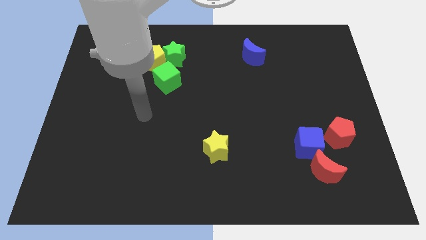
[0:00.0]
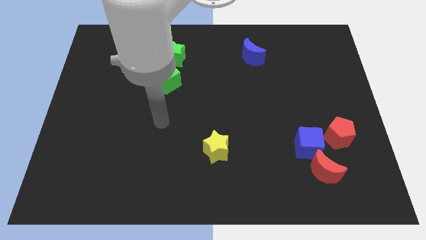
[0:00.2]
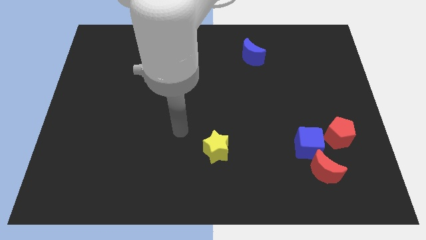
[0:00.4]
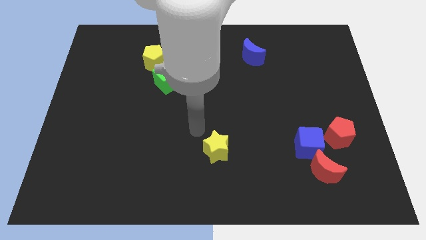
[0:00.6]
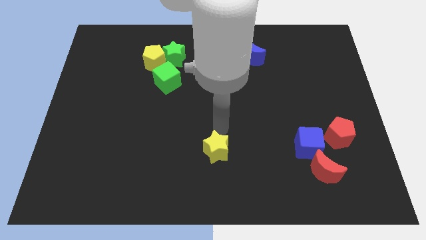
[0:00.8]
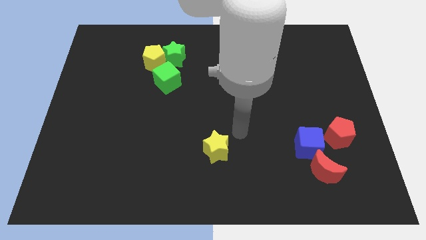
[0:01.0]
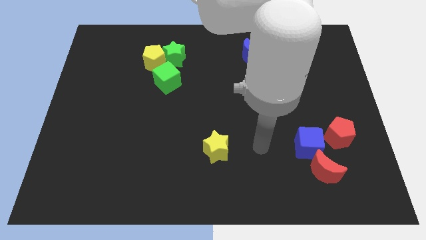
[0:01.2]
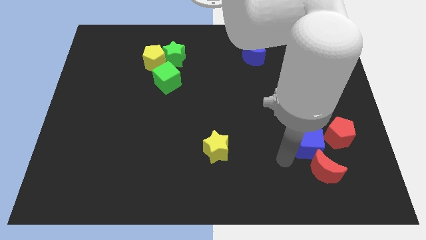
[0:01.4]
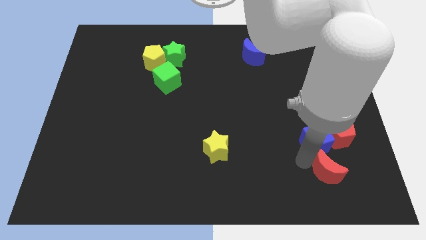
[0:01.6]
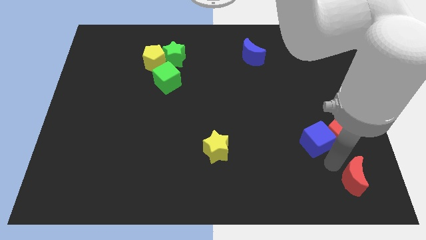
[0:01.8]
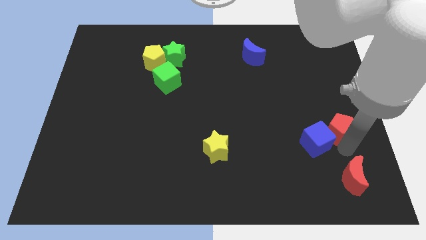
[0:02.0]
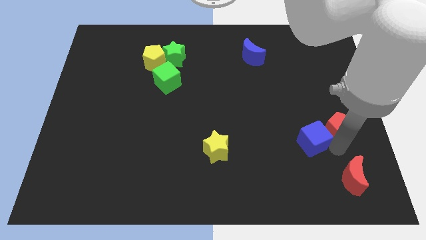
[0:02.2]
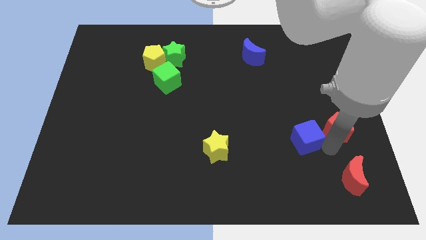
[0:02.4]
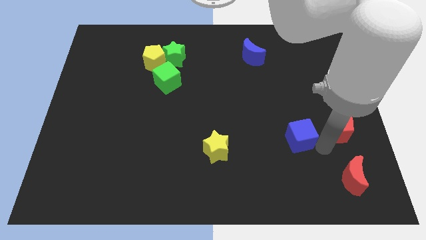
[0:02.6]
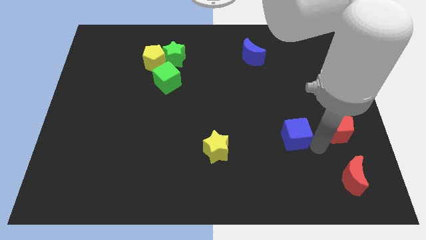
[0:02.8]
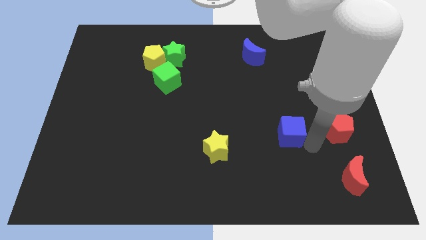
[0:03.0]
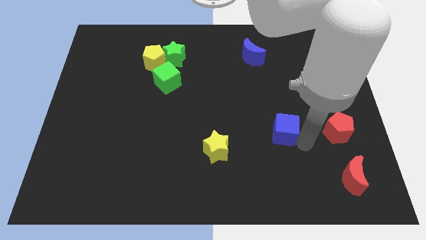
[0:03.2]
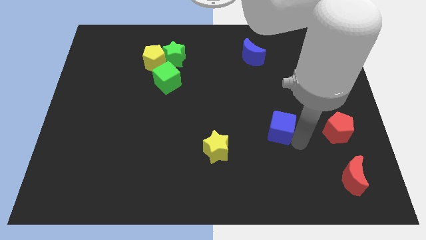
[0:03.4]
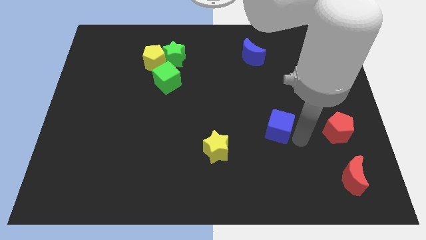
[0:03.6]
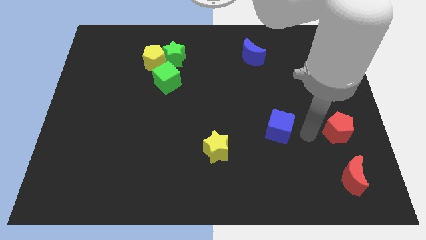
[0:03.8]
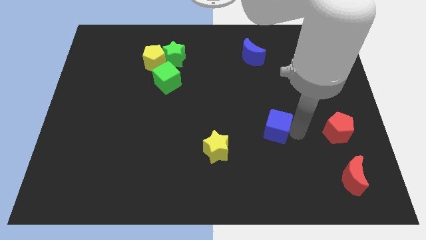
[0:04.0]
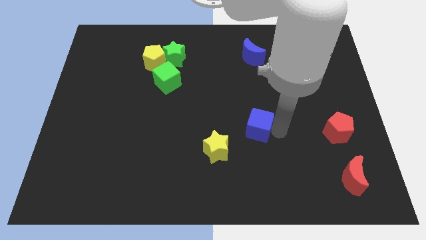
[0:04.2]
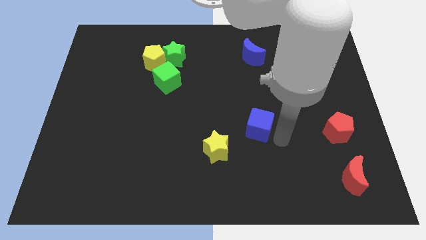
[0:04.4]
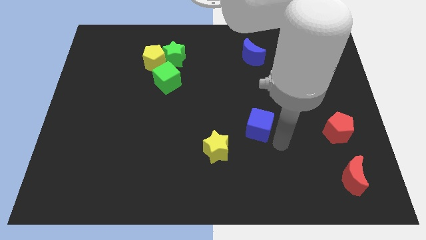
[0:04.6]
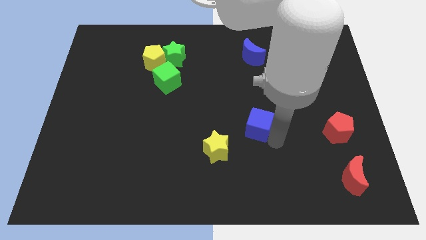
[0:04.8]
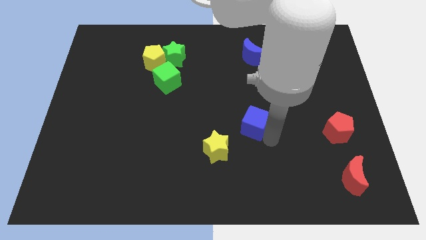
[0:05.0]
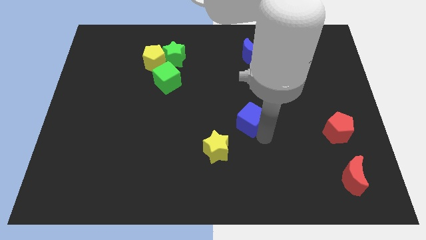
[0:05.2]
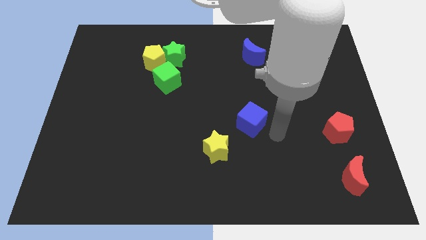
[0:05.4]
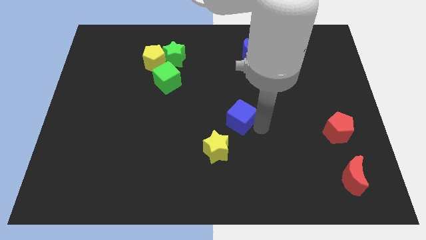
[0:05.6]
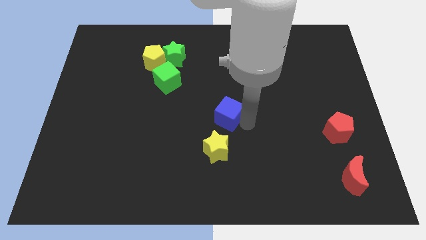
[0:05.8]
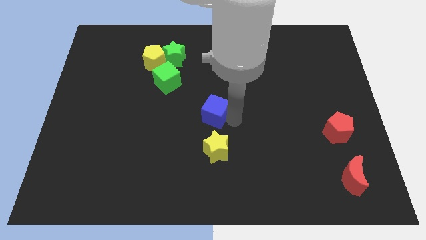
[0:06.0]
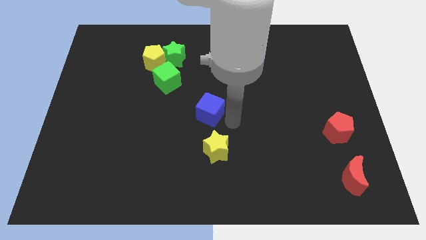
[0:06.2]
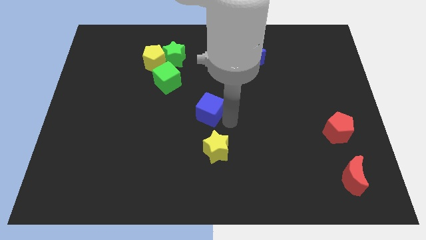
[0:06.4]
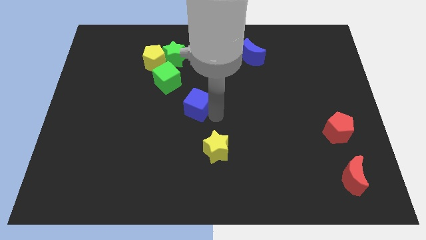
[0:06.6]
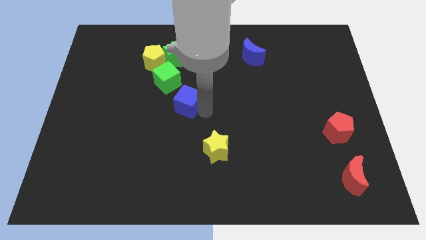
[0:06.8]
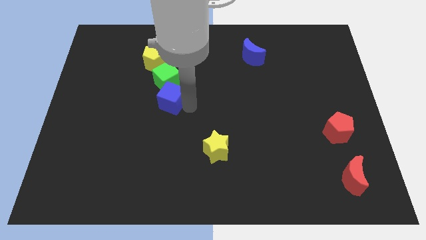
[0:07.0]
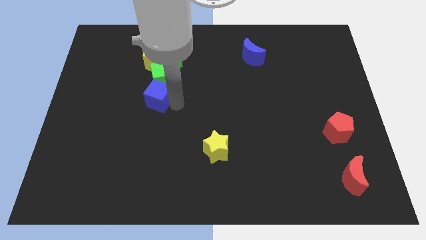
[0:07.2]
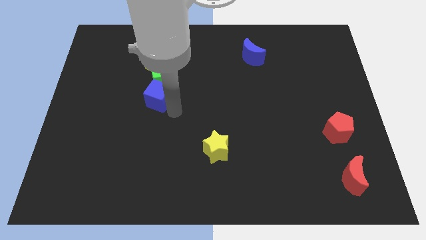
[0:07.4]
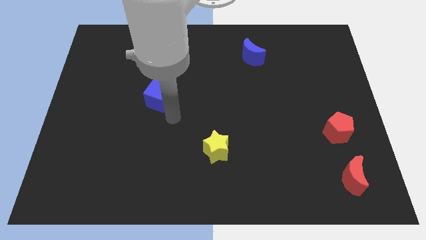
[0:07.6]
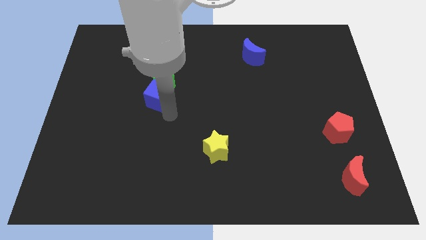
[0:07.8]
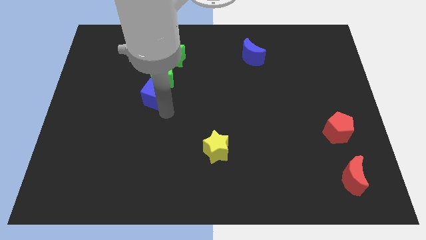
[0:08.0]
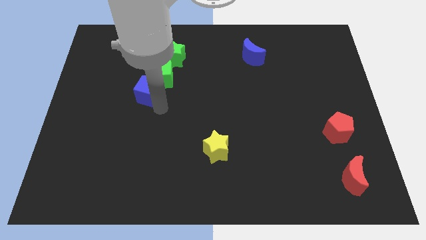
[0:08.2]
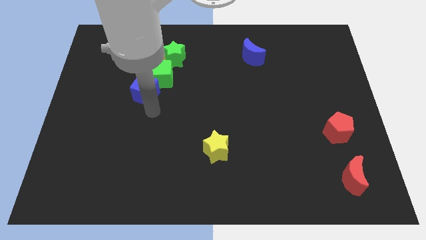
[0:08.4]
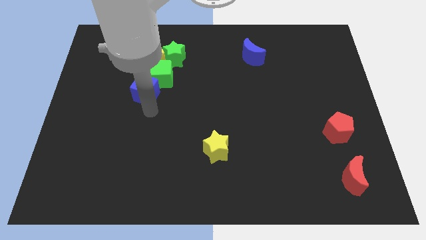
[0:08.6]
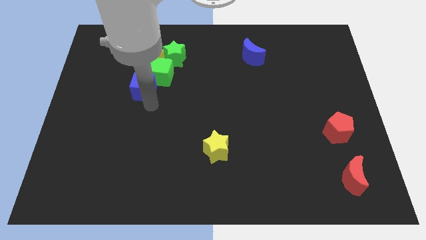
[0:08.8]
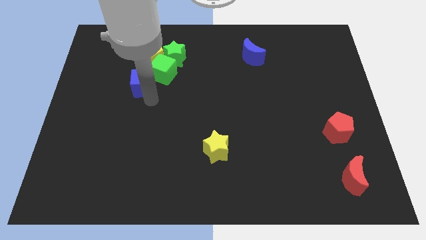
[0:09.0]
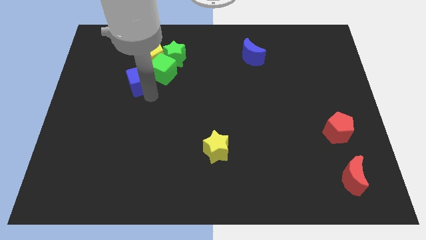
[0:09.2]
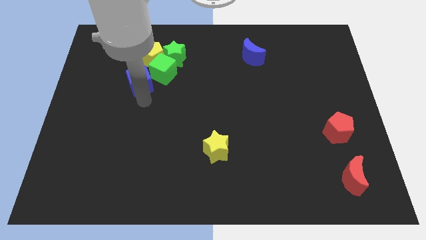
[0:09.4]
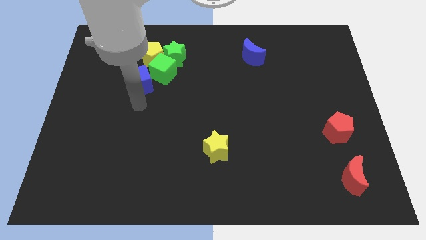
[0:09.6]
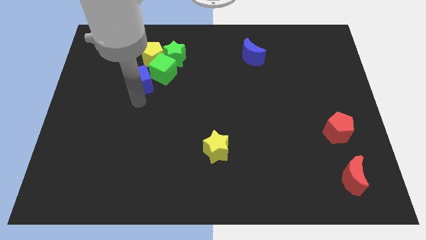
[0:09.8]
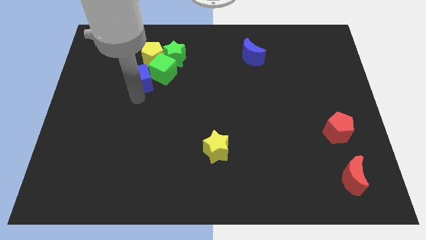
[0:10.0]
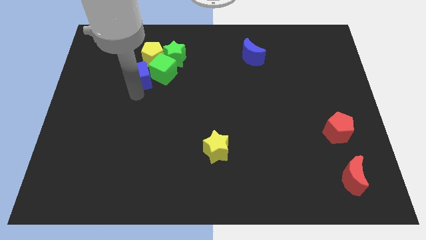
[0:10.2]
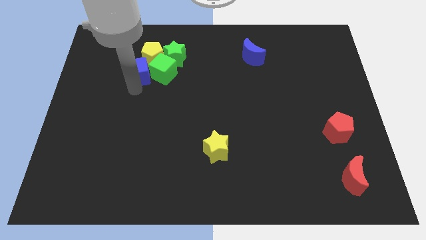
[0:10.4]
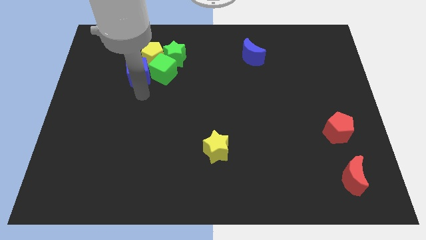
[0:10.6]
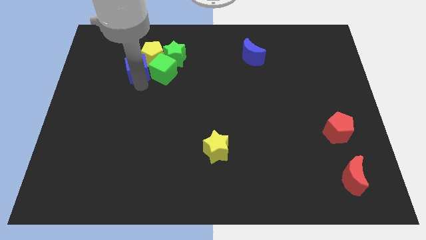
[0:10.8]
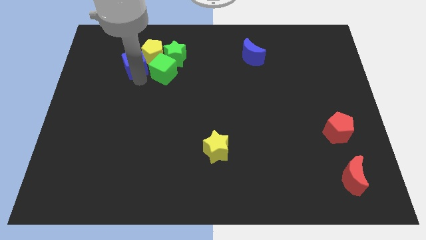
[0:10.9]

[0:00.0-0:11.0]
slide the blue cube to the left side of the green star

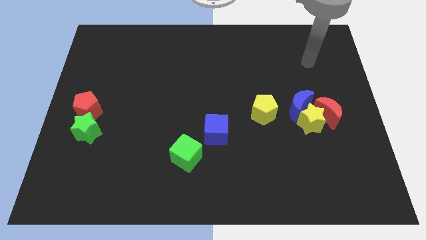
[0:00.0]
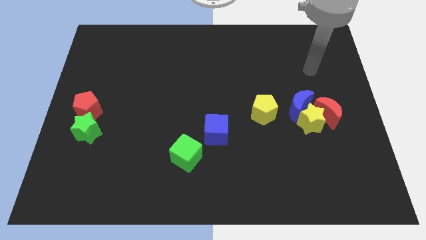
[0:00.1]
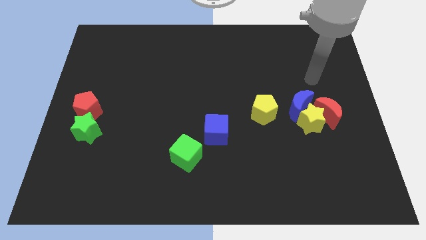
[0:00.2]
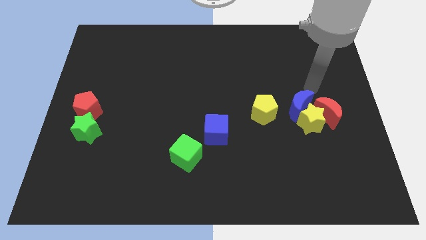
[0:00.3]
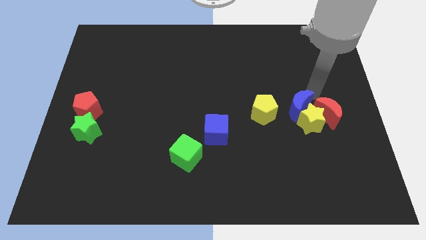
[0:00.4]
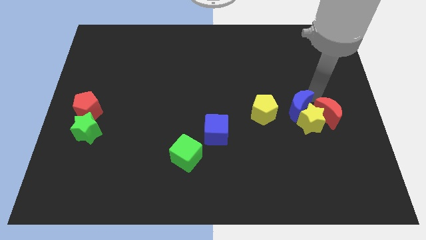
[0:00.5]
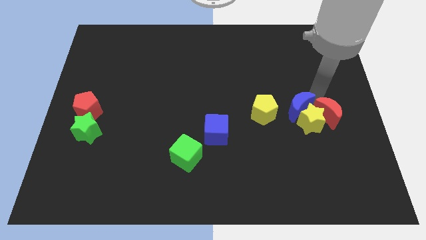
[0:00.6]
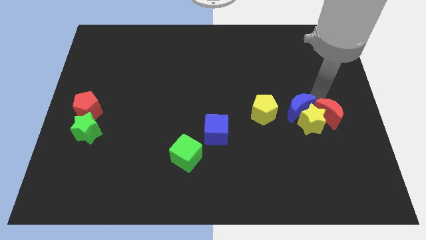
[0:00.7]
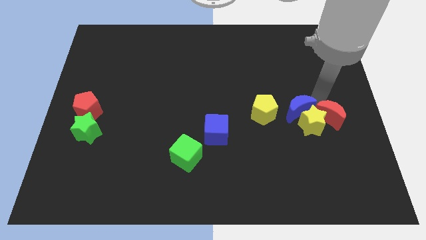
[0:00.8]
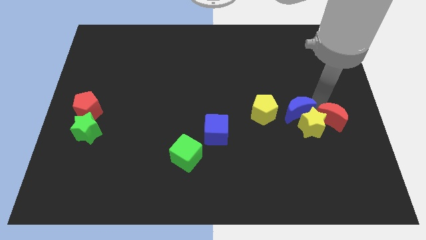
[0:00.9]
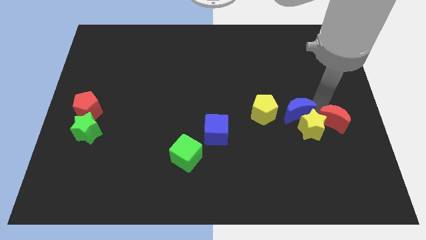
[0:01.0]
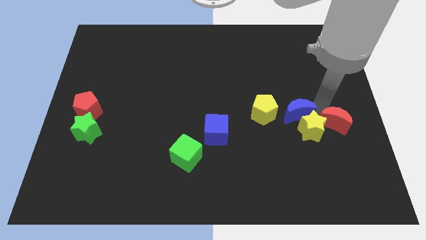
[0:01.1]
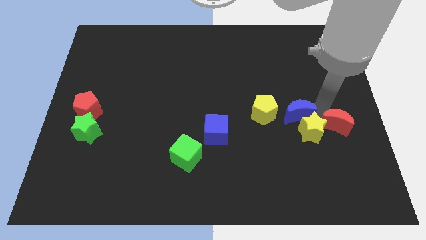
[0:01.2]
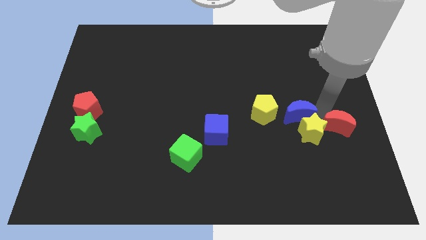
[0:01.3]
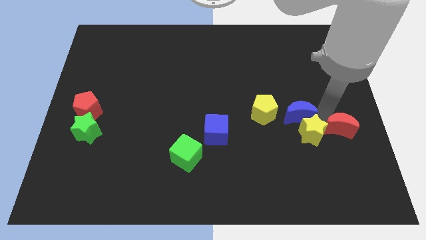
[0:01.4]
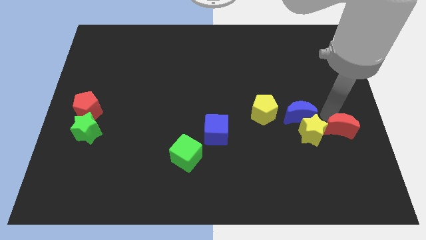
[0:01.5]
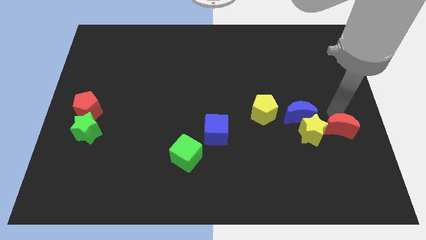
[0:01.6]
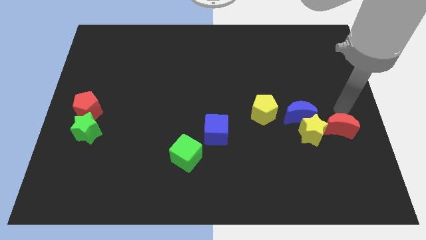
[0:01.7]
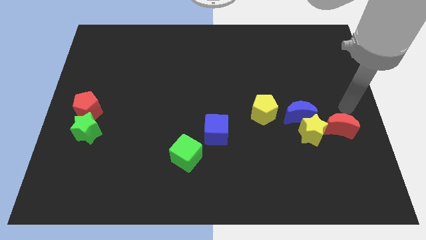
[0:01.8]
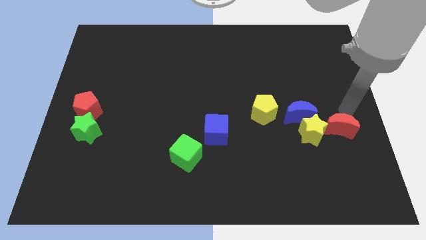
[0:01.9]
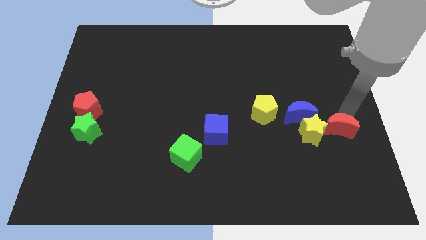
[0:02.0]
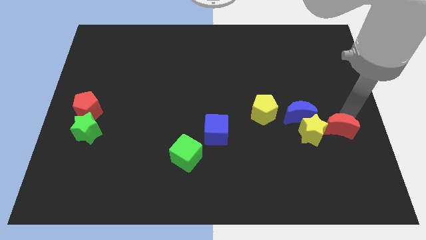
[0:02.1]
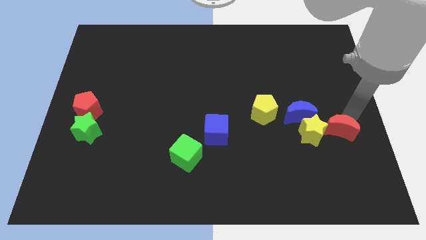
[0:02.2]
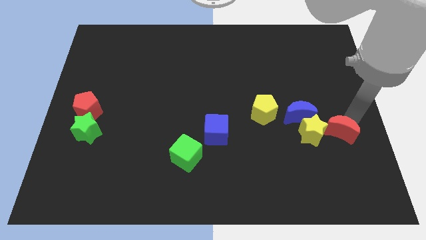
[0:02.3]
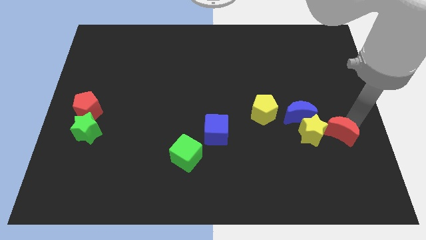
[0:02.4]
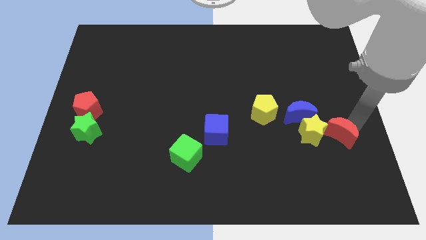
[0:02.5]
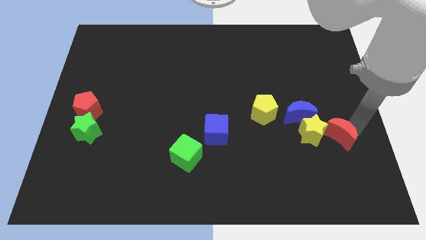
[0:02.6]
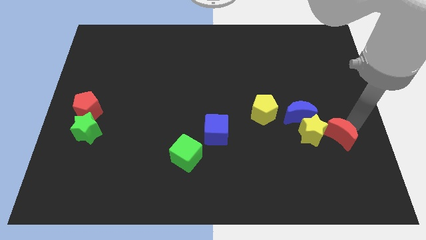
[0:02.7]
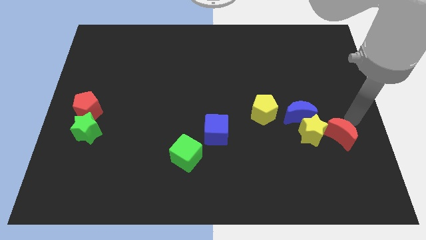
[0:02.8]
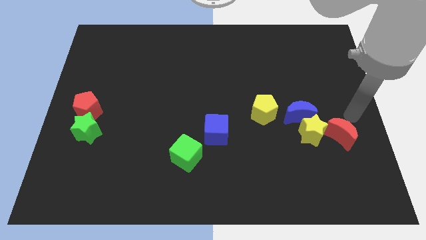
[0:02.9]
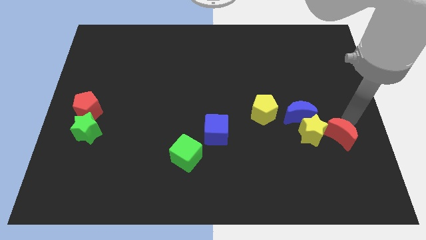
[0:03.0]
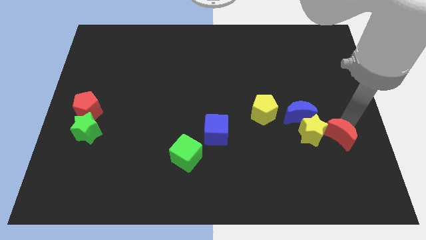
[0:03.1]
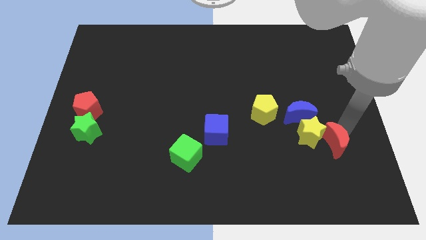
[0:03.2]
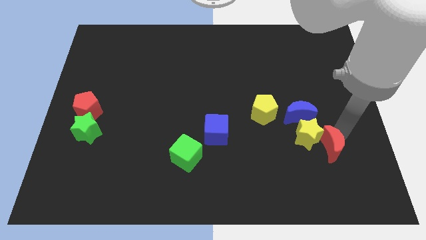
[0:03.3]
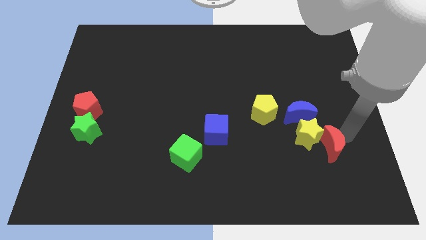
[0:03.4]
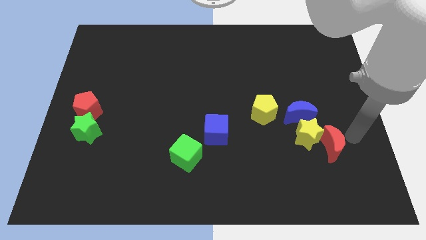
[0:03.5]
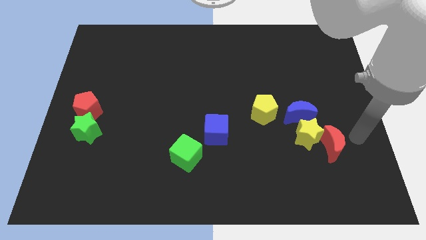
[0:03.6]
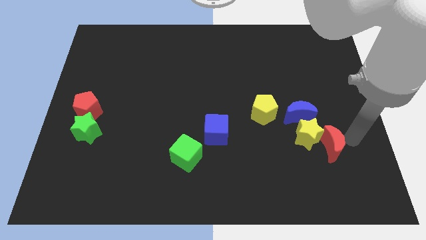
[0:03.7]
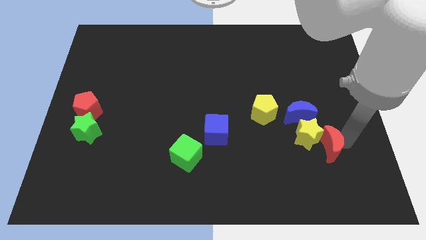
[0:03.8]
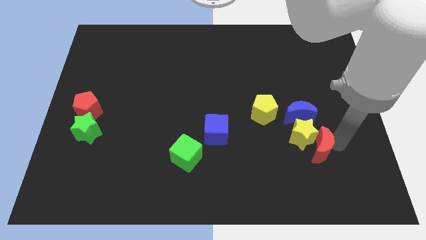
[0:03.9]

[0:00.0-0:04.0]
move the red moon to the bottom of the blue moon
